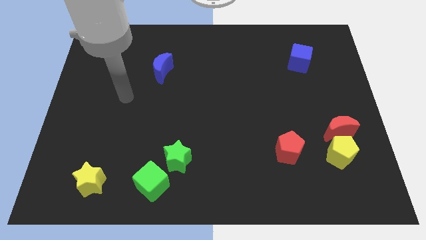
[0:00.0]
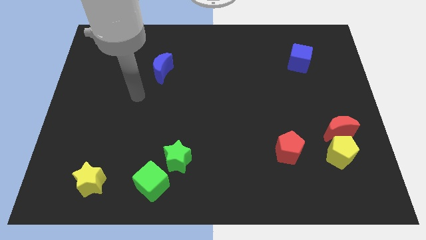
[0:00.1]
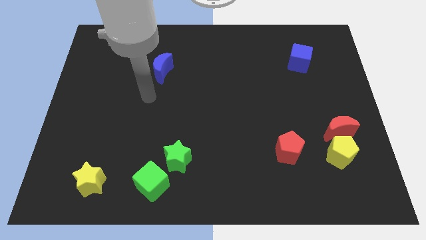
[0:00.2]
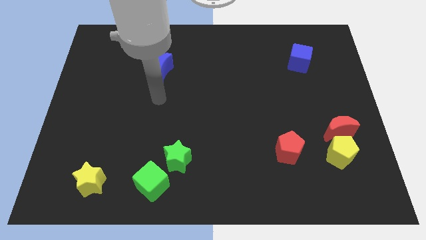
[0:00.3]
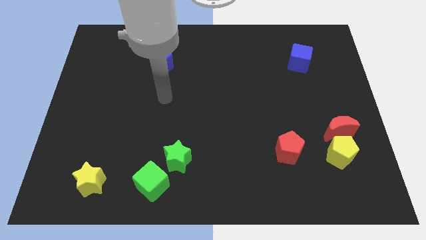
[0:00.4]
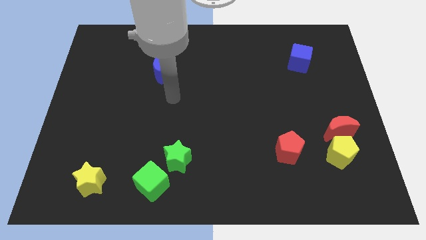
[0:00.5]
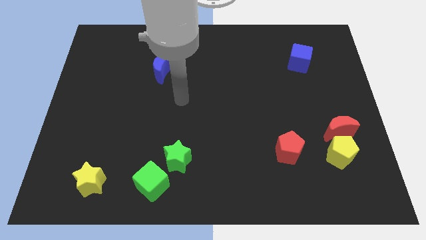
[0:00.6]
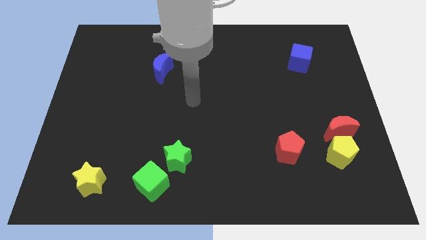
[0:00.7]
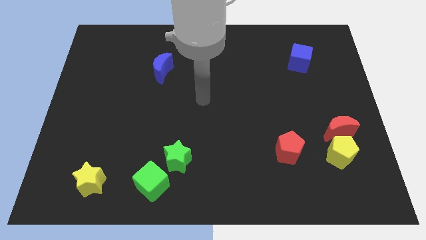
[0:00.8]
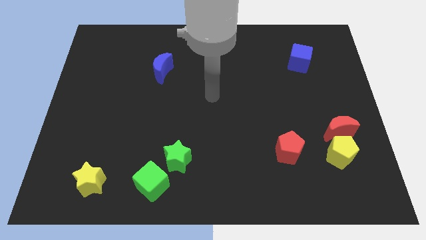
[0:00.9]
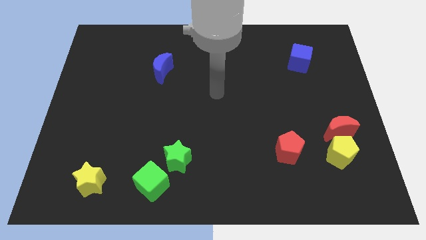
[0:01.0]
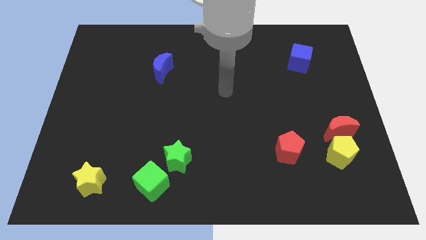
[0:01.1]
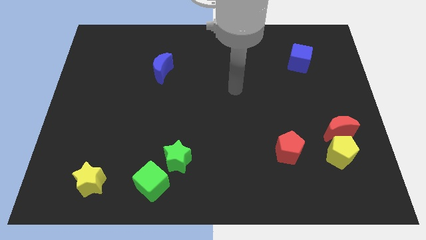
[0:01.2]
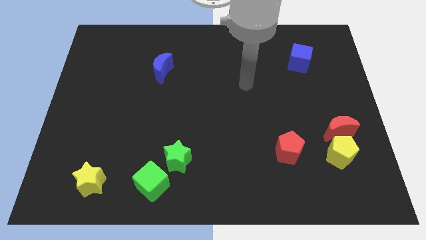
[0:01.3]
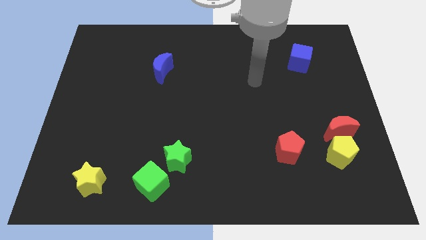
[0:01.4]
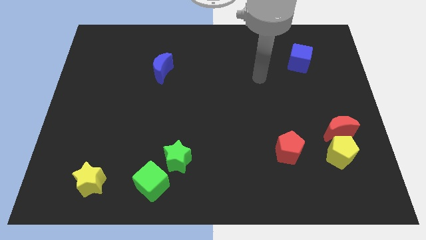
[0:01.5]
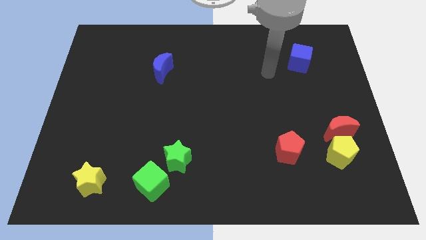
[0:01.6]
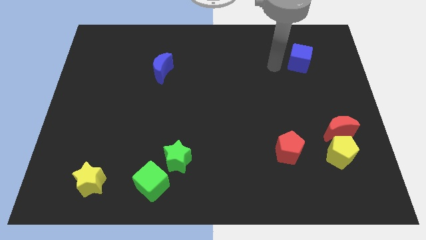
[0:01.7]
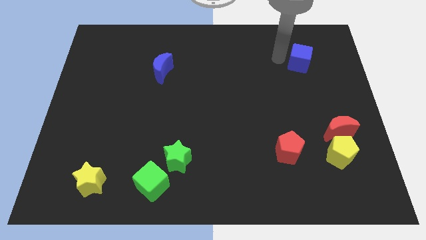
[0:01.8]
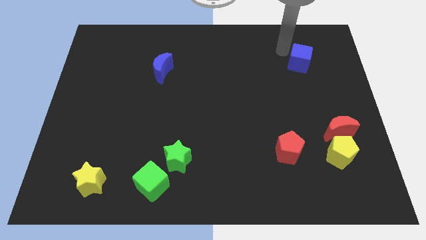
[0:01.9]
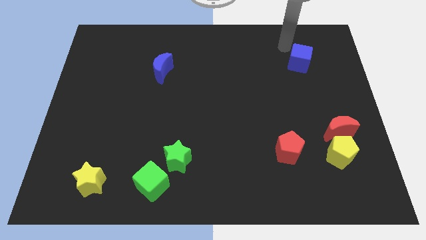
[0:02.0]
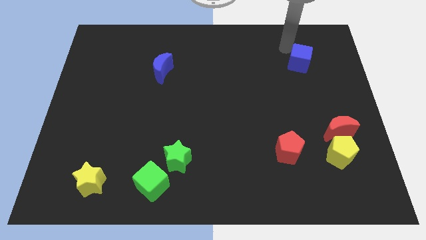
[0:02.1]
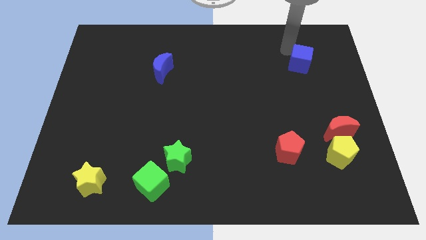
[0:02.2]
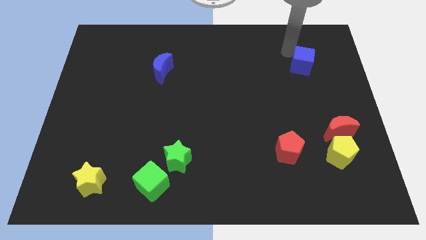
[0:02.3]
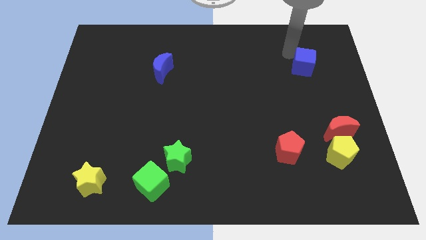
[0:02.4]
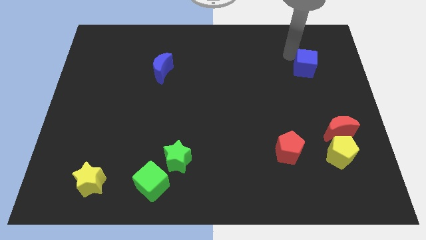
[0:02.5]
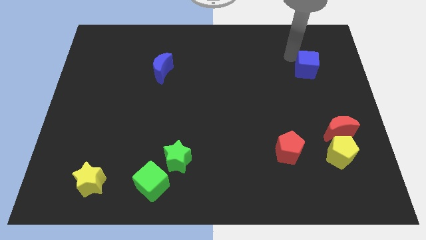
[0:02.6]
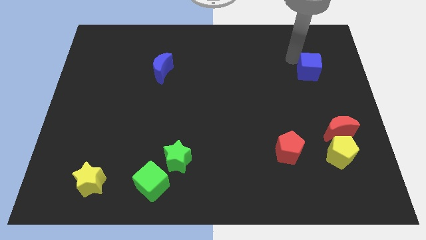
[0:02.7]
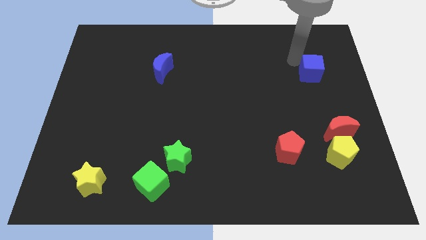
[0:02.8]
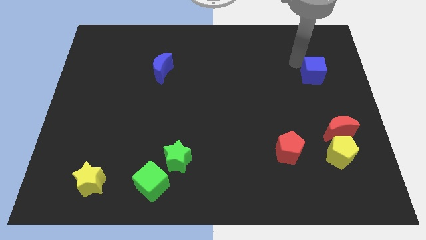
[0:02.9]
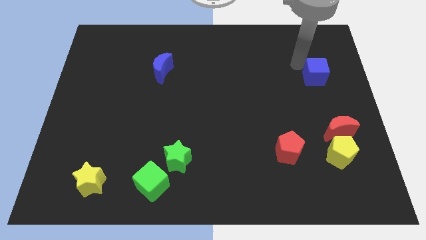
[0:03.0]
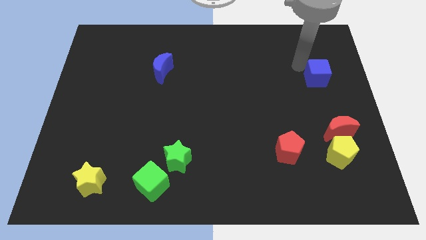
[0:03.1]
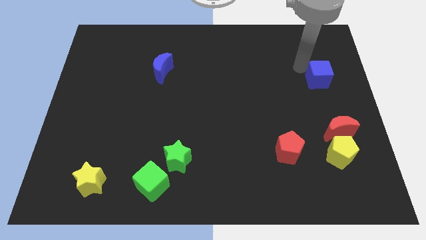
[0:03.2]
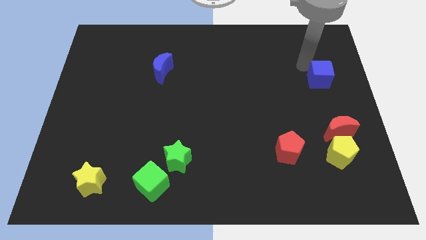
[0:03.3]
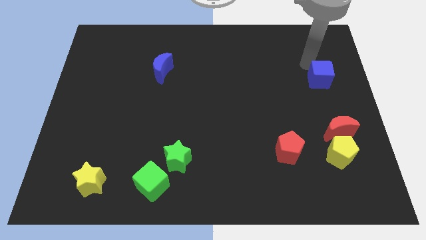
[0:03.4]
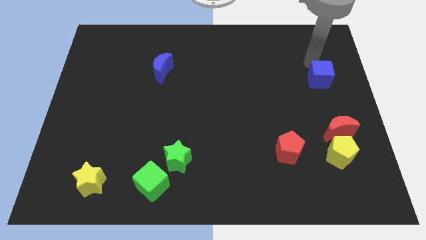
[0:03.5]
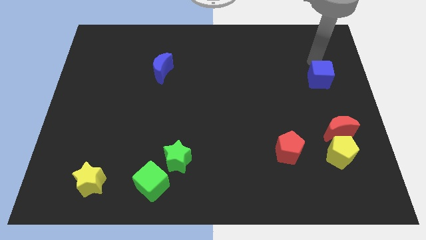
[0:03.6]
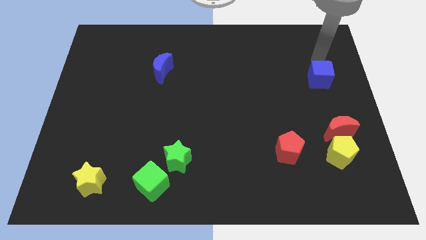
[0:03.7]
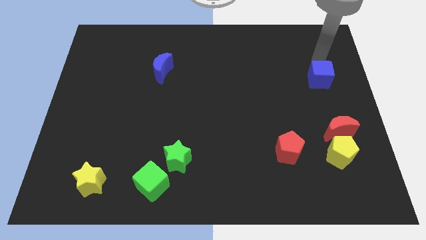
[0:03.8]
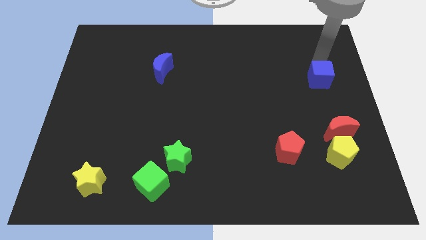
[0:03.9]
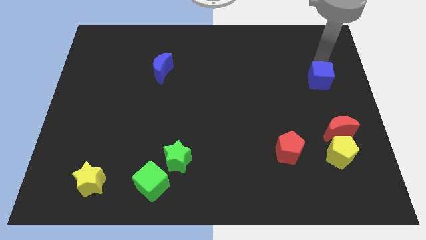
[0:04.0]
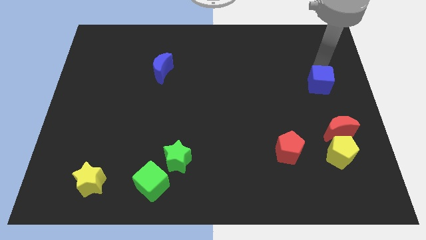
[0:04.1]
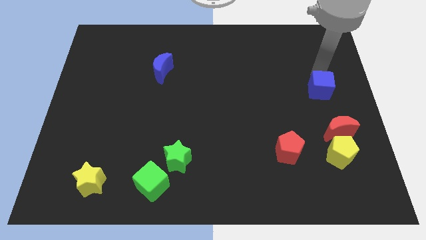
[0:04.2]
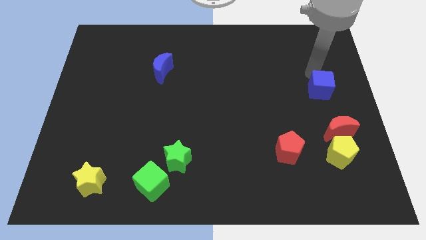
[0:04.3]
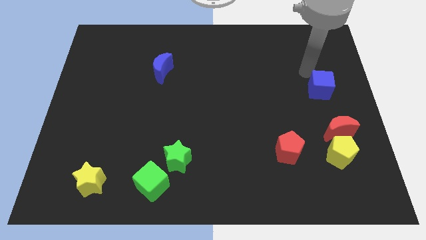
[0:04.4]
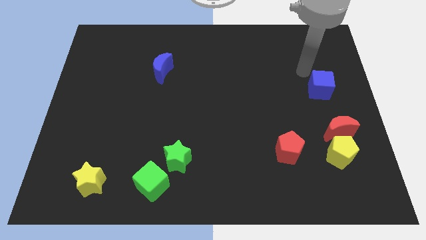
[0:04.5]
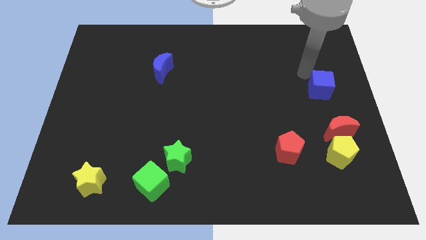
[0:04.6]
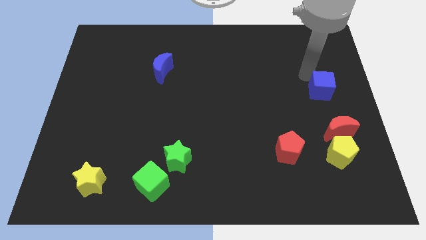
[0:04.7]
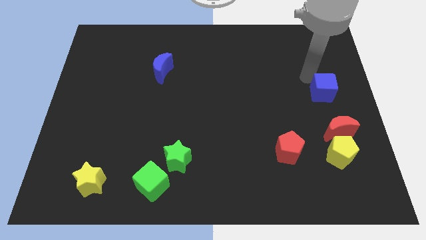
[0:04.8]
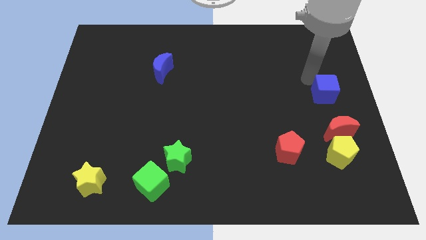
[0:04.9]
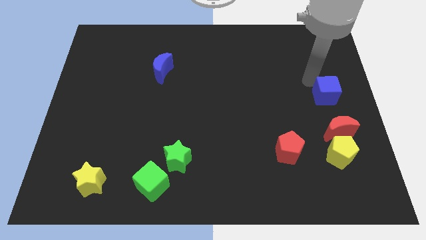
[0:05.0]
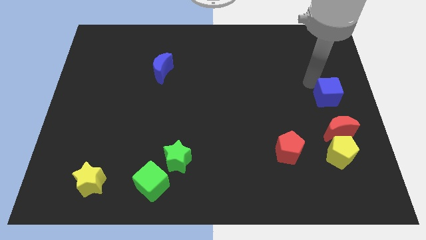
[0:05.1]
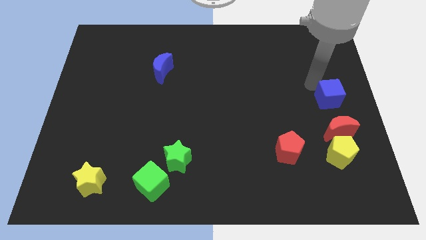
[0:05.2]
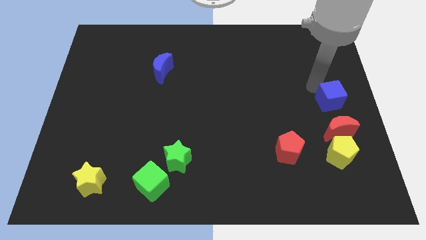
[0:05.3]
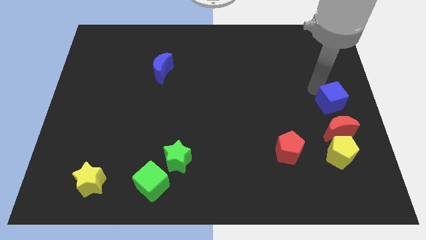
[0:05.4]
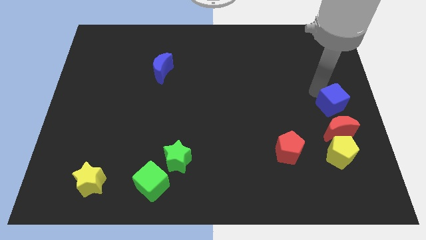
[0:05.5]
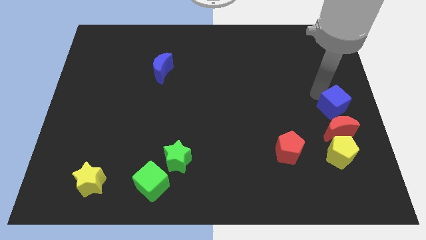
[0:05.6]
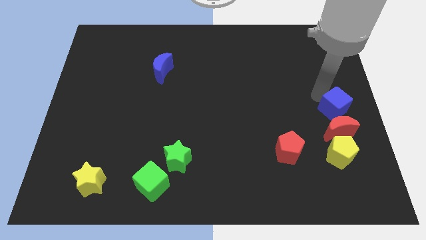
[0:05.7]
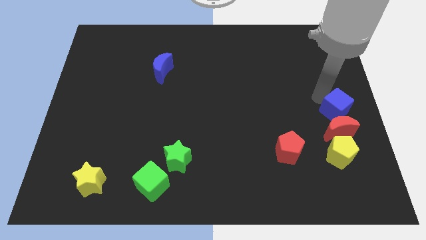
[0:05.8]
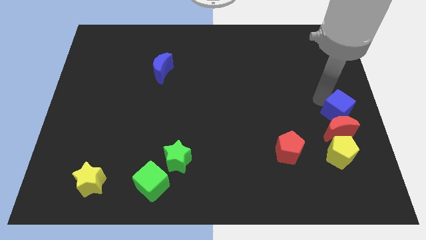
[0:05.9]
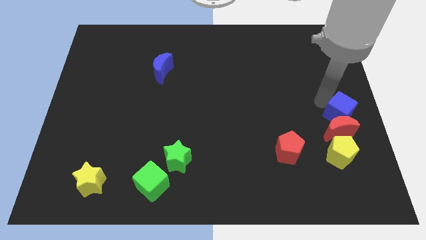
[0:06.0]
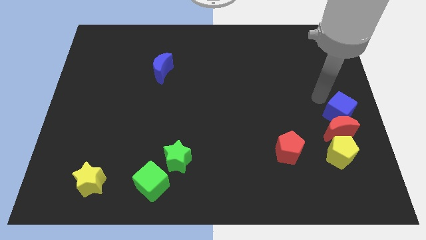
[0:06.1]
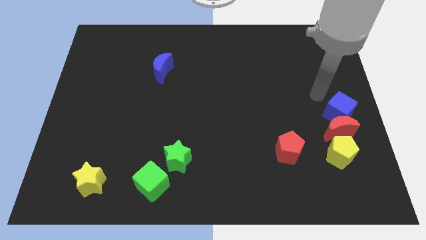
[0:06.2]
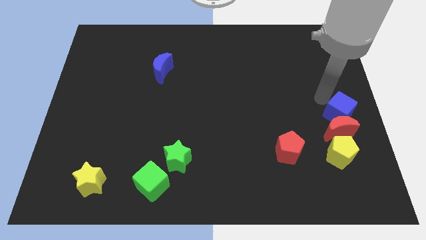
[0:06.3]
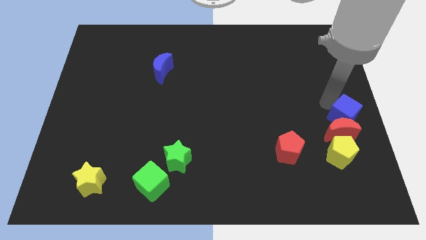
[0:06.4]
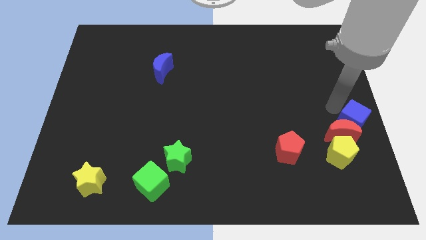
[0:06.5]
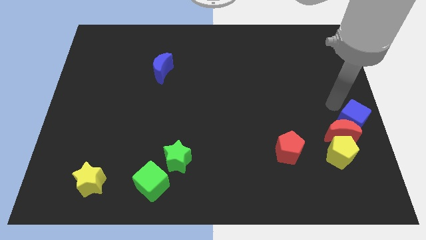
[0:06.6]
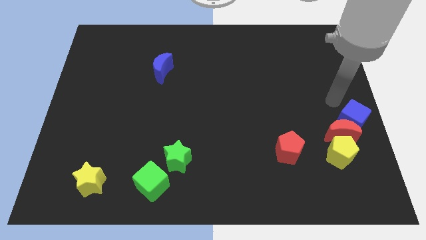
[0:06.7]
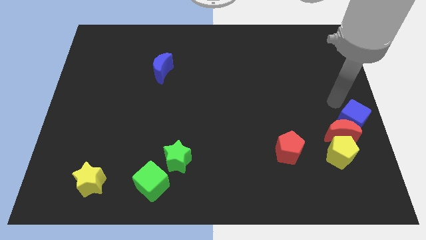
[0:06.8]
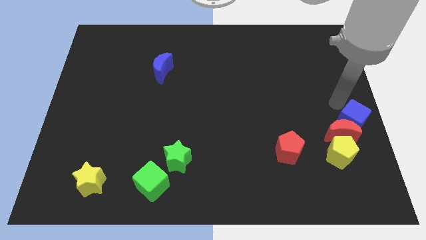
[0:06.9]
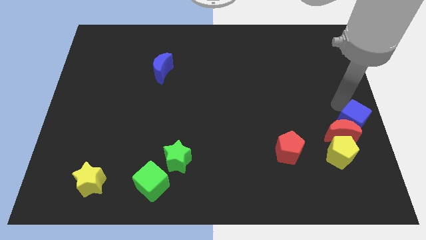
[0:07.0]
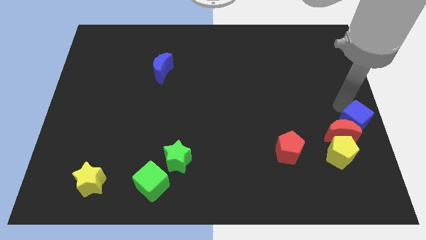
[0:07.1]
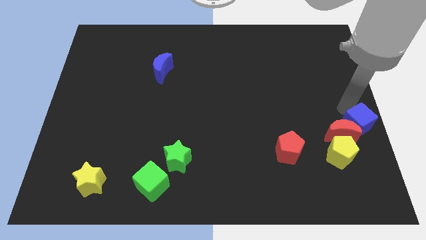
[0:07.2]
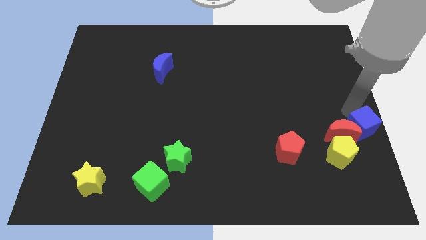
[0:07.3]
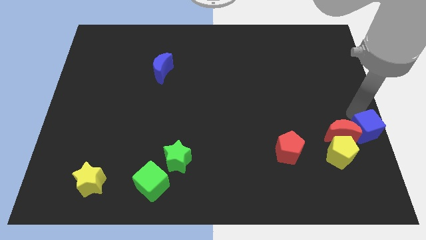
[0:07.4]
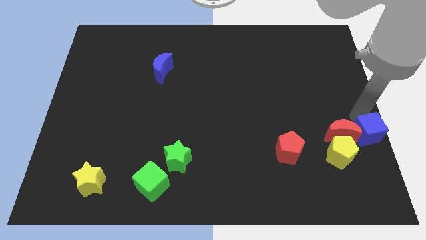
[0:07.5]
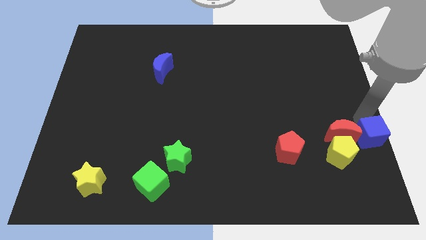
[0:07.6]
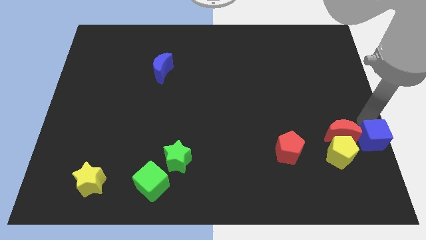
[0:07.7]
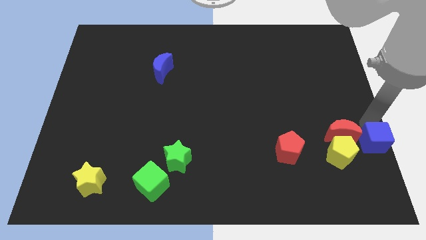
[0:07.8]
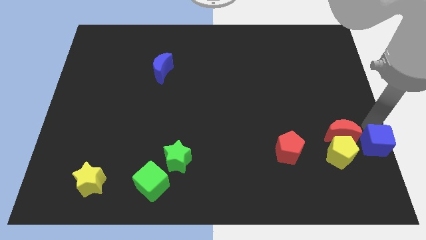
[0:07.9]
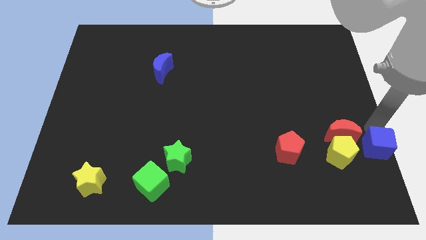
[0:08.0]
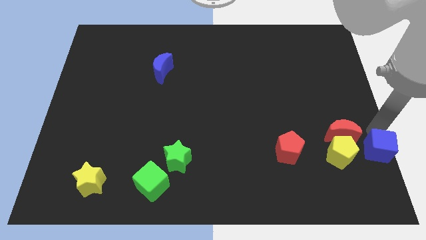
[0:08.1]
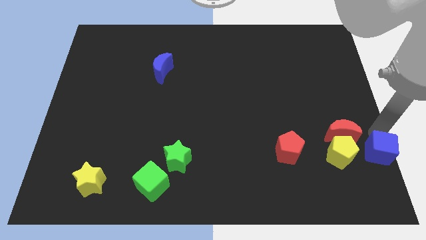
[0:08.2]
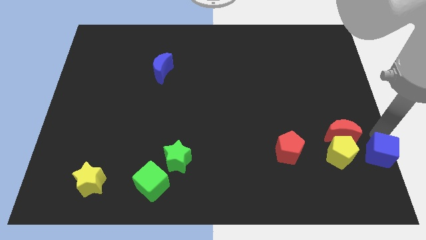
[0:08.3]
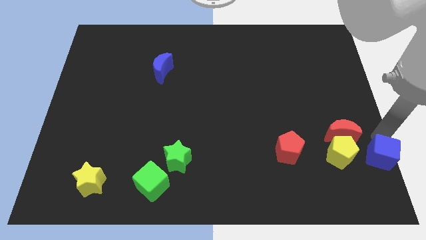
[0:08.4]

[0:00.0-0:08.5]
put the blue cube to the bottom right
